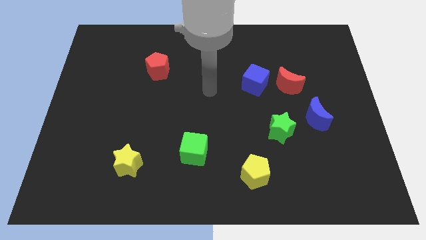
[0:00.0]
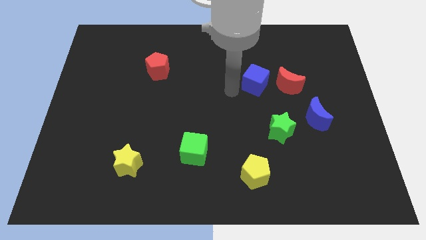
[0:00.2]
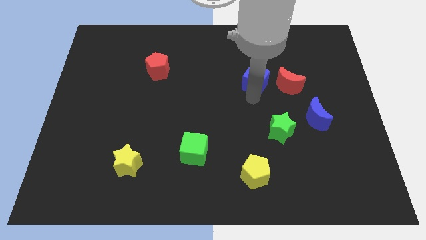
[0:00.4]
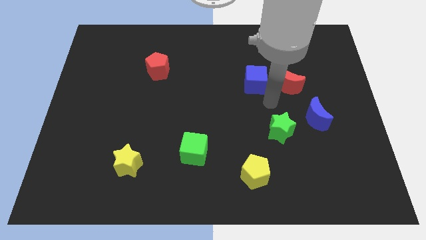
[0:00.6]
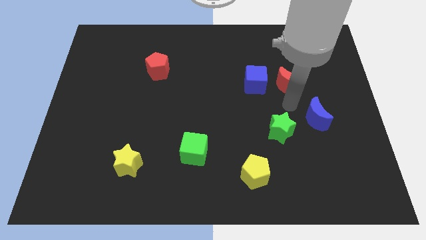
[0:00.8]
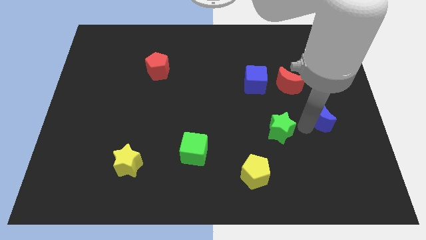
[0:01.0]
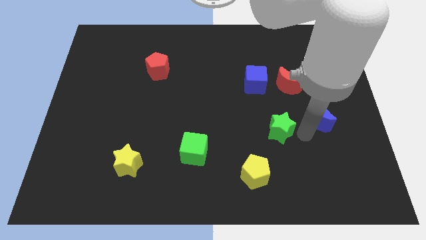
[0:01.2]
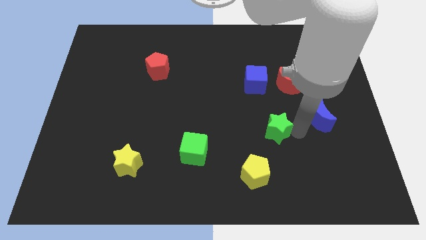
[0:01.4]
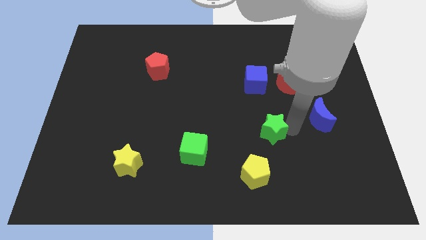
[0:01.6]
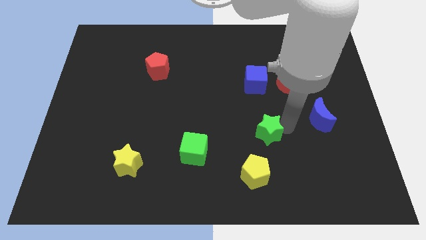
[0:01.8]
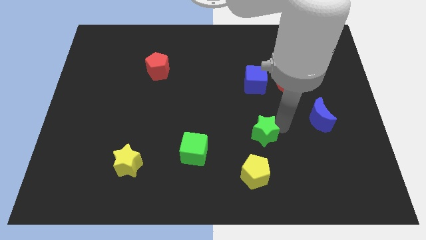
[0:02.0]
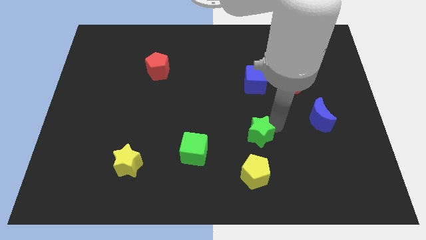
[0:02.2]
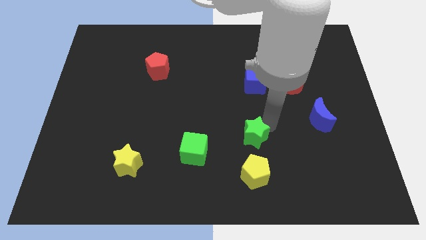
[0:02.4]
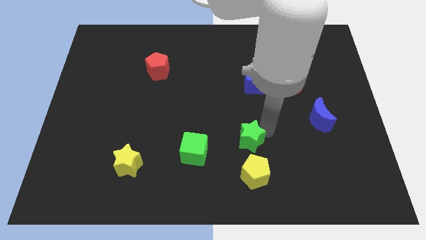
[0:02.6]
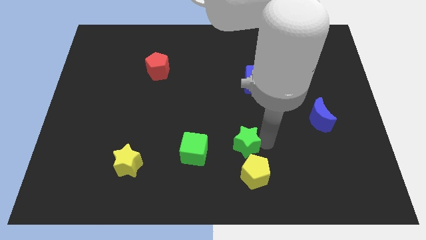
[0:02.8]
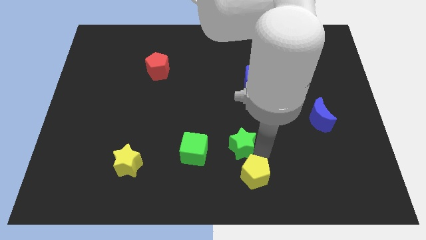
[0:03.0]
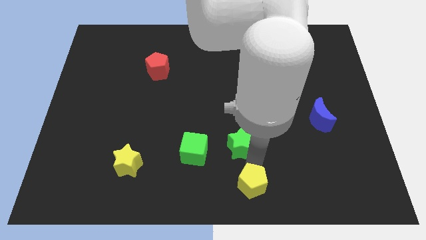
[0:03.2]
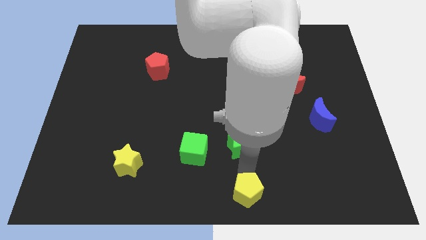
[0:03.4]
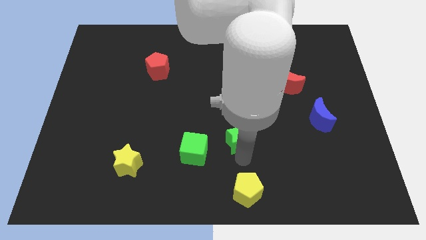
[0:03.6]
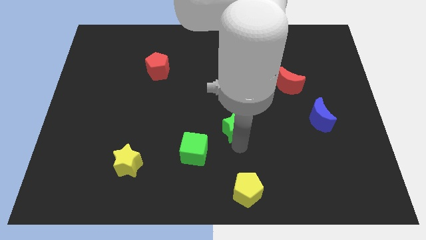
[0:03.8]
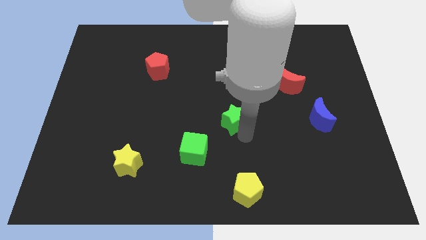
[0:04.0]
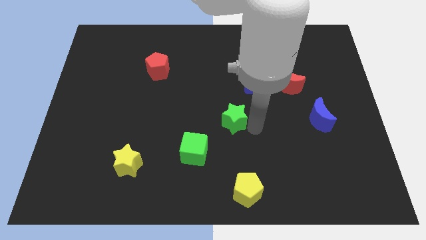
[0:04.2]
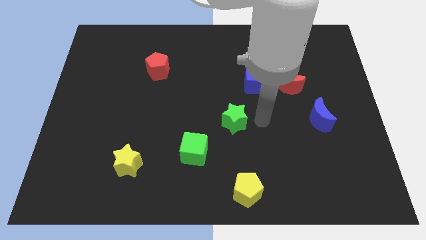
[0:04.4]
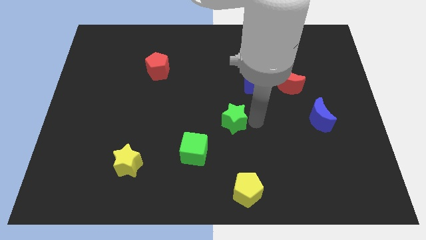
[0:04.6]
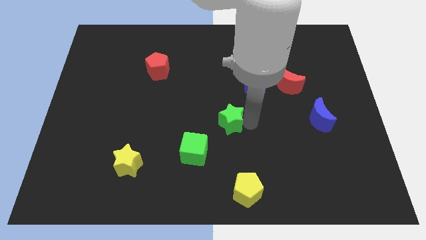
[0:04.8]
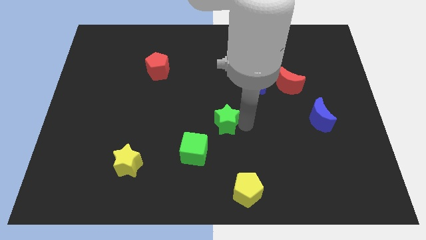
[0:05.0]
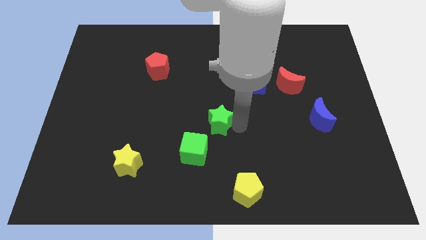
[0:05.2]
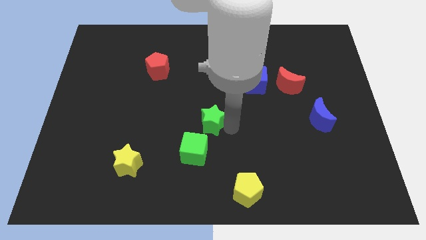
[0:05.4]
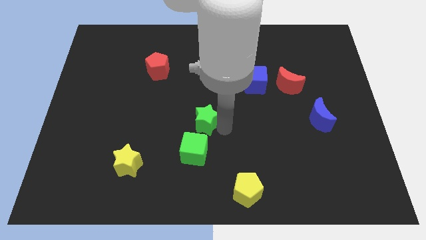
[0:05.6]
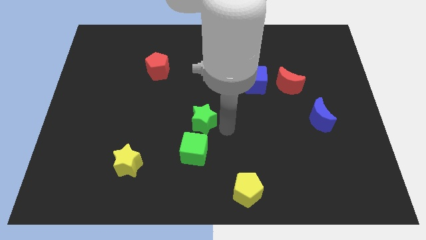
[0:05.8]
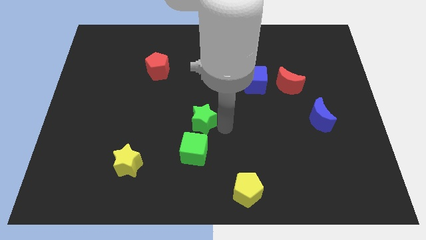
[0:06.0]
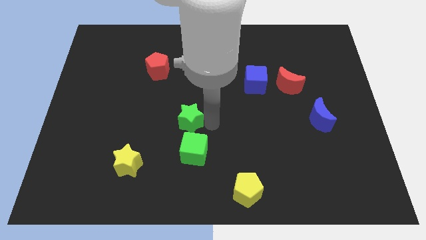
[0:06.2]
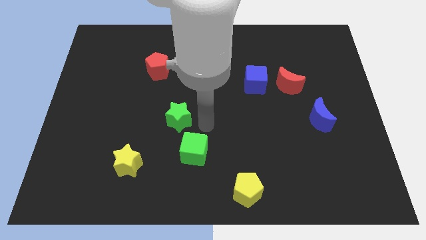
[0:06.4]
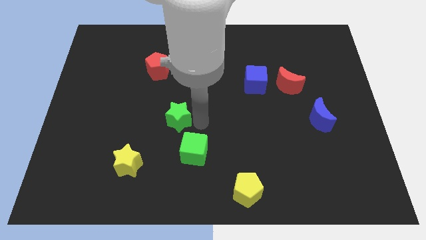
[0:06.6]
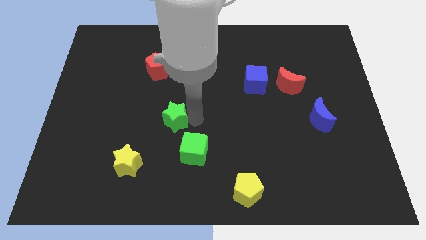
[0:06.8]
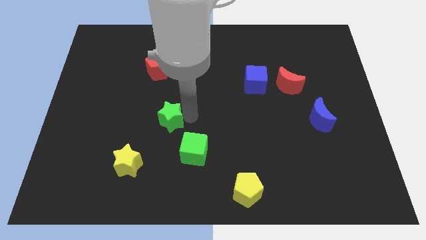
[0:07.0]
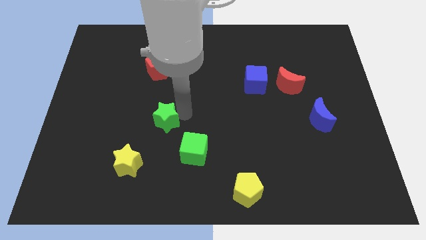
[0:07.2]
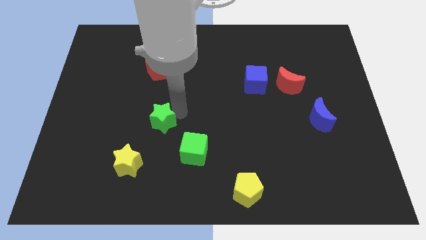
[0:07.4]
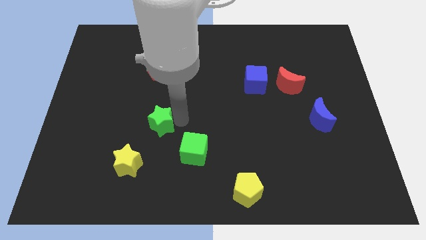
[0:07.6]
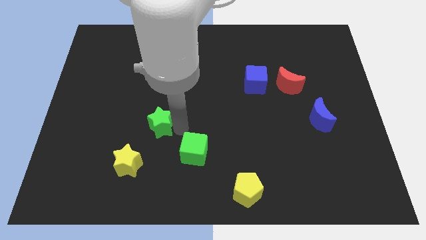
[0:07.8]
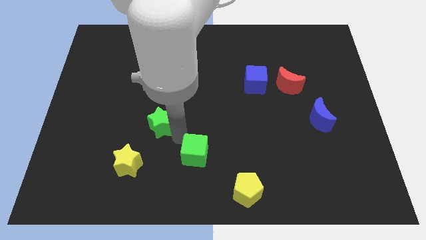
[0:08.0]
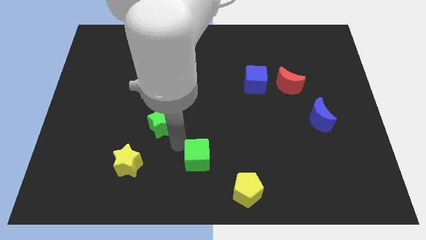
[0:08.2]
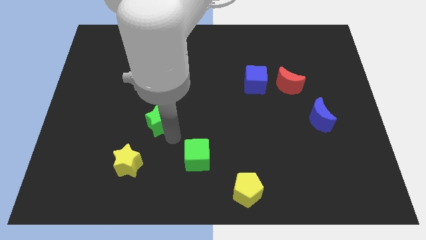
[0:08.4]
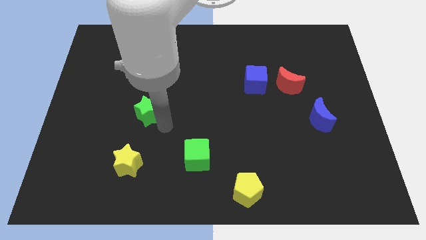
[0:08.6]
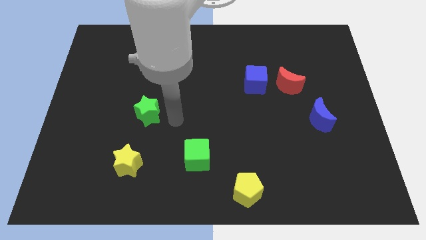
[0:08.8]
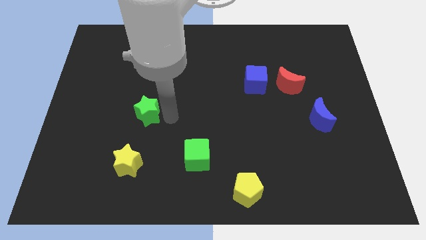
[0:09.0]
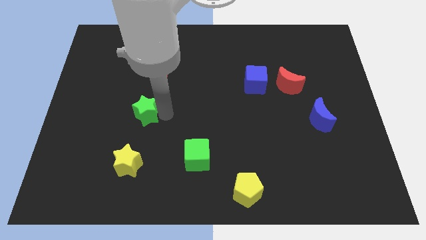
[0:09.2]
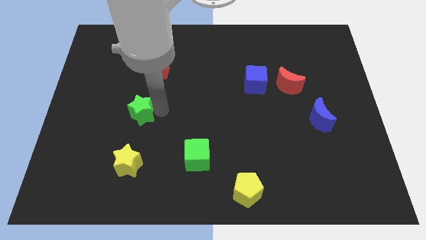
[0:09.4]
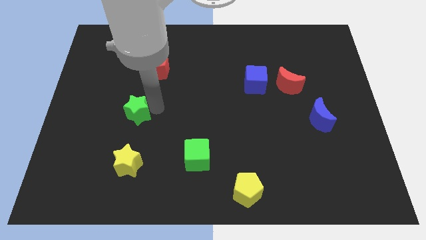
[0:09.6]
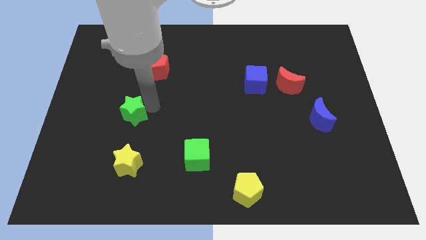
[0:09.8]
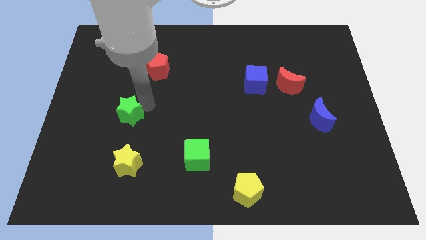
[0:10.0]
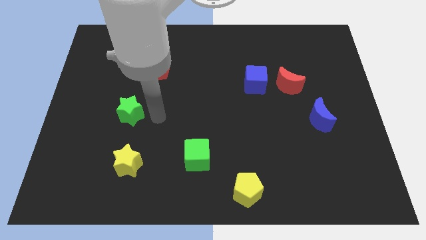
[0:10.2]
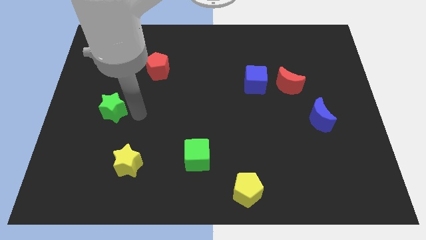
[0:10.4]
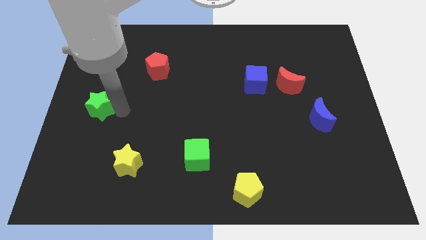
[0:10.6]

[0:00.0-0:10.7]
move the green star to the center left

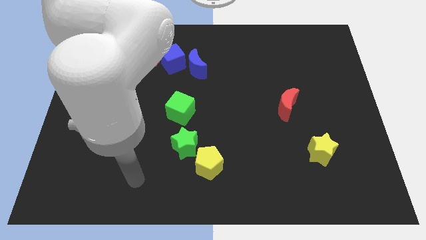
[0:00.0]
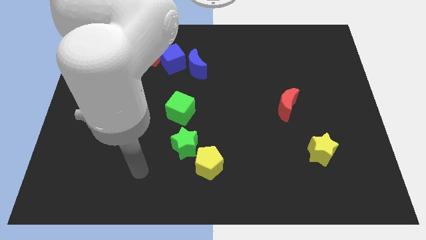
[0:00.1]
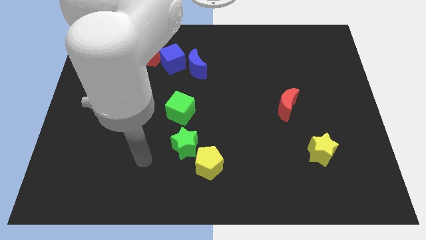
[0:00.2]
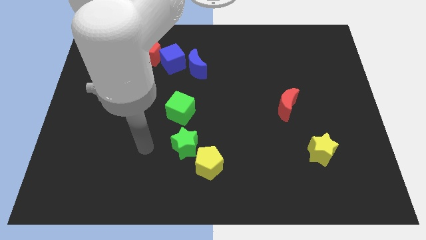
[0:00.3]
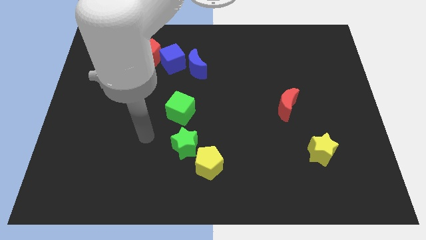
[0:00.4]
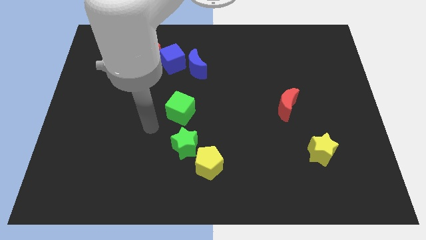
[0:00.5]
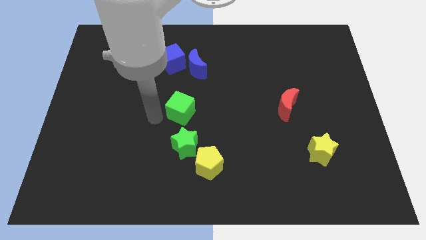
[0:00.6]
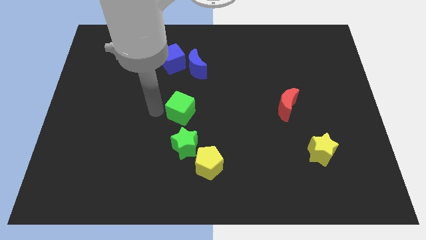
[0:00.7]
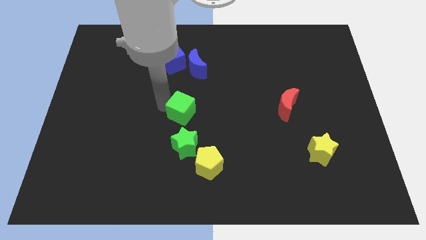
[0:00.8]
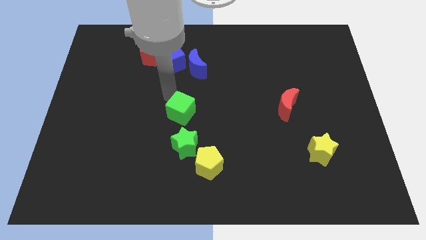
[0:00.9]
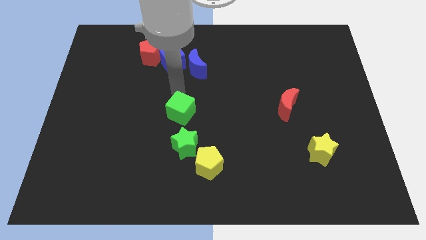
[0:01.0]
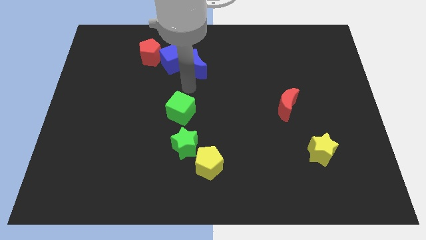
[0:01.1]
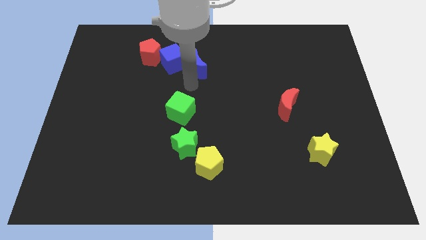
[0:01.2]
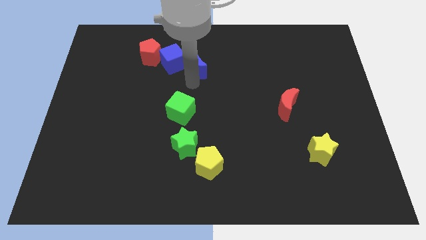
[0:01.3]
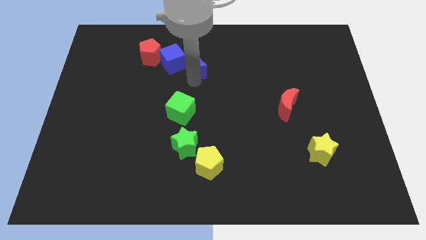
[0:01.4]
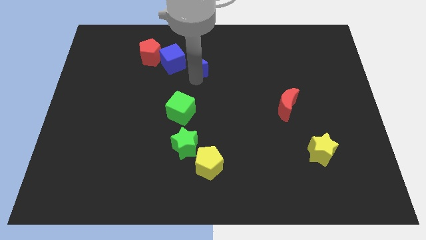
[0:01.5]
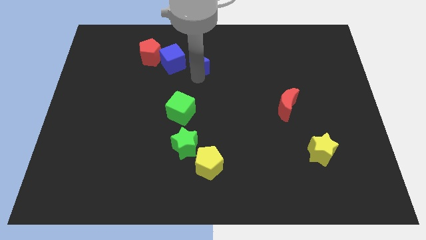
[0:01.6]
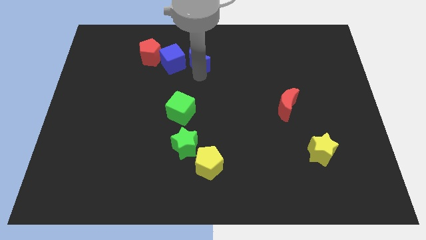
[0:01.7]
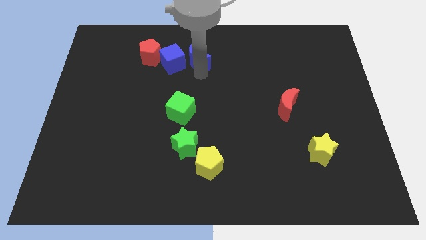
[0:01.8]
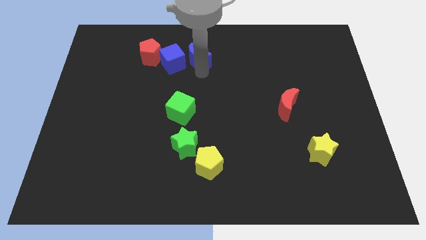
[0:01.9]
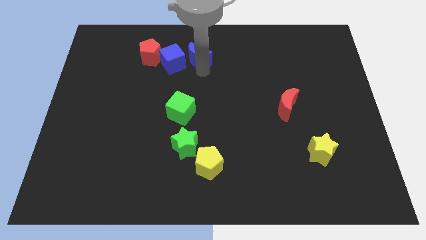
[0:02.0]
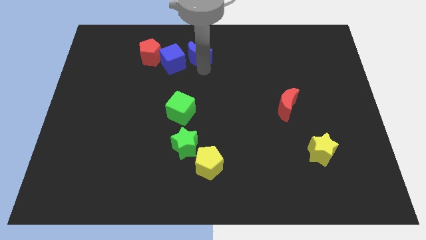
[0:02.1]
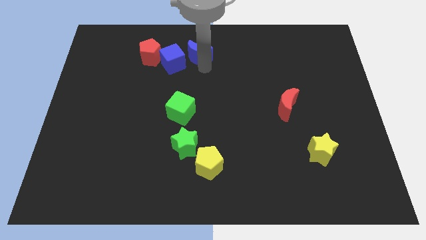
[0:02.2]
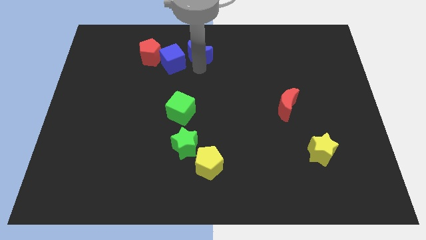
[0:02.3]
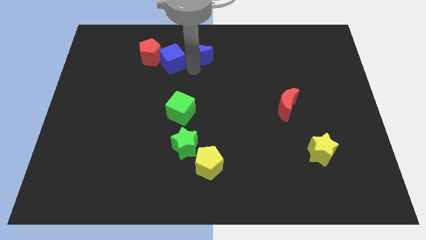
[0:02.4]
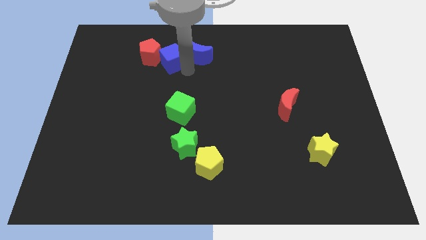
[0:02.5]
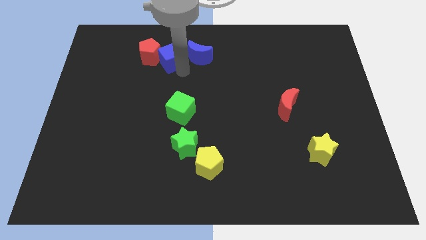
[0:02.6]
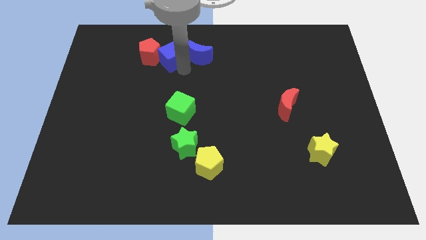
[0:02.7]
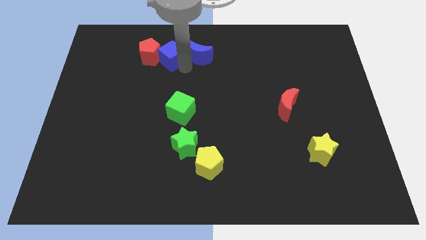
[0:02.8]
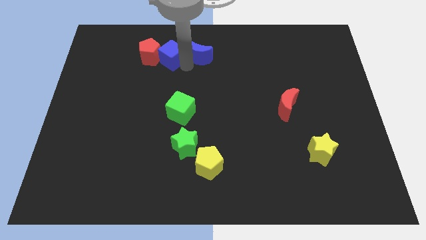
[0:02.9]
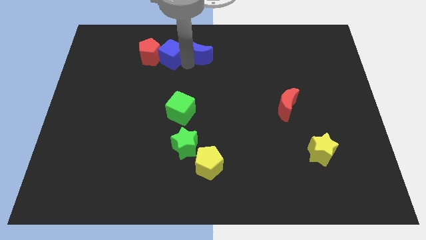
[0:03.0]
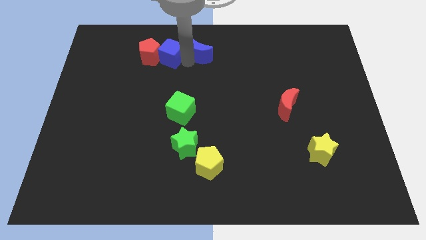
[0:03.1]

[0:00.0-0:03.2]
push the blue moon to the top
